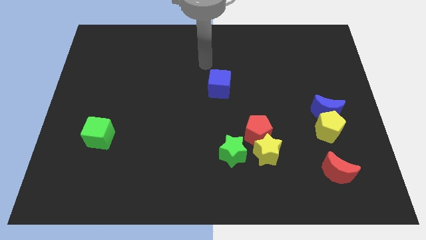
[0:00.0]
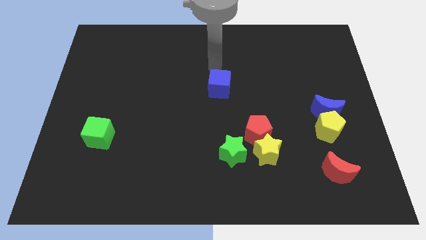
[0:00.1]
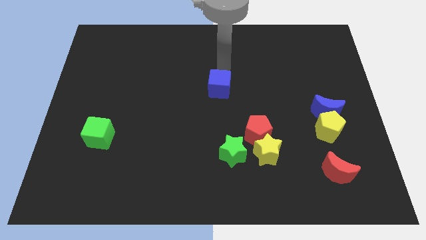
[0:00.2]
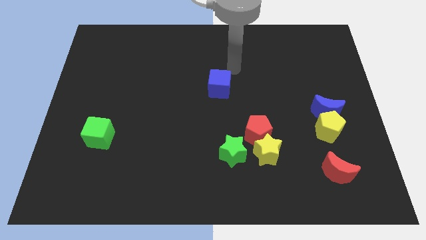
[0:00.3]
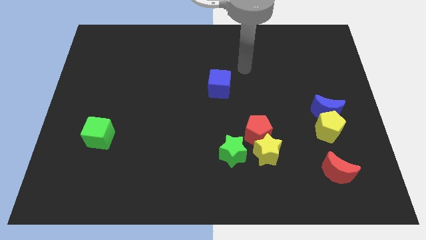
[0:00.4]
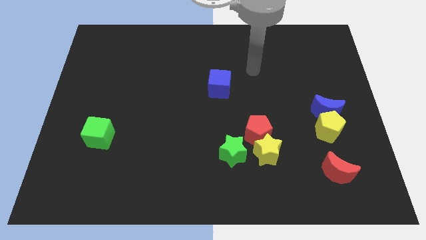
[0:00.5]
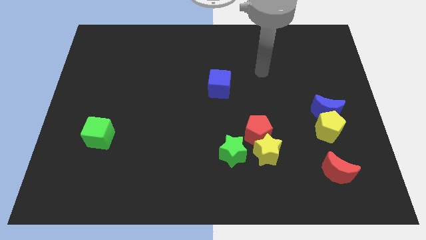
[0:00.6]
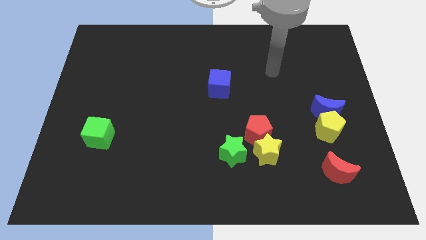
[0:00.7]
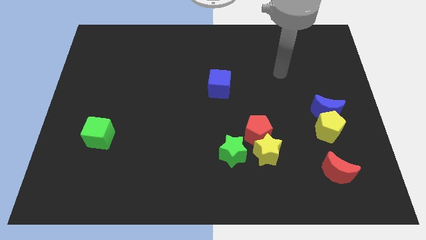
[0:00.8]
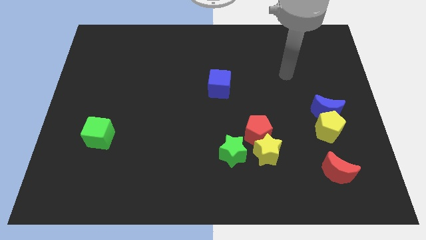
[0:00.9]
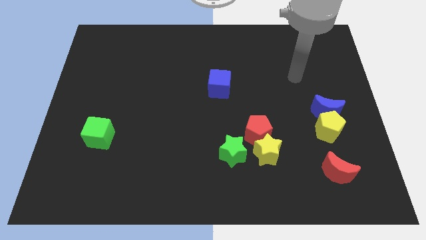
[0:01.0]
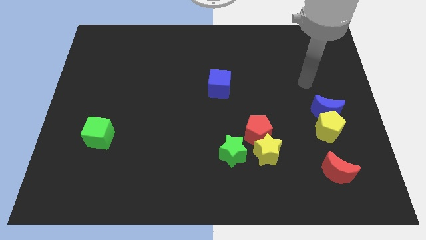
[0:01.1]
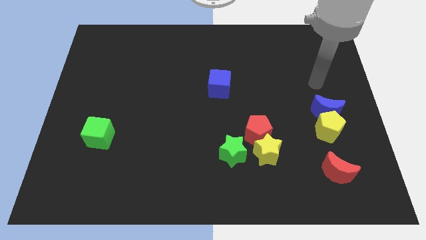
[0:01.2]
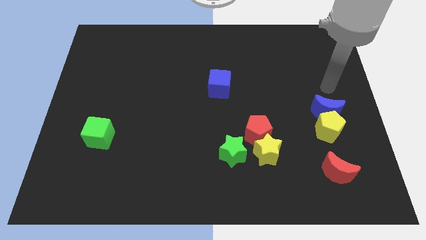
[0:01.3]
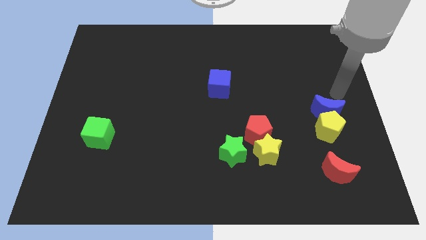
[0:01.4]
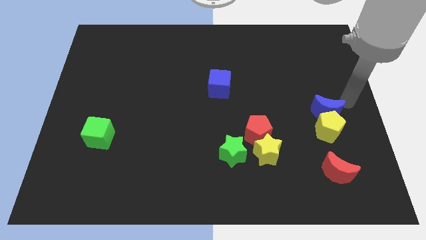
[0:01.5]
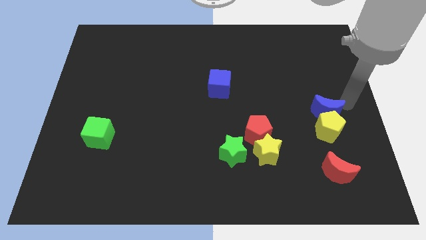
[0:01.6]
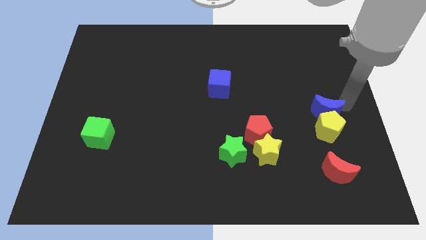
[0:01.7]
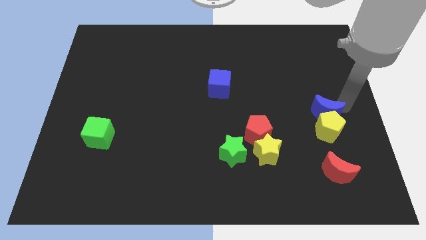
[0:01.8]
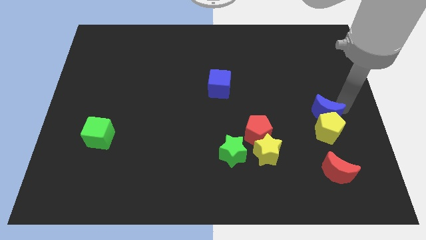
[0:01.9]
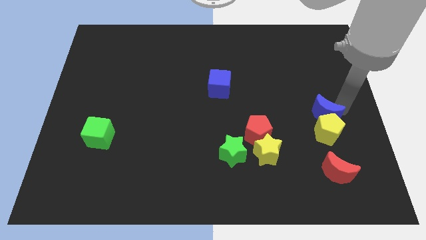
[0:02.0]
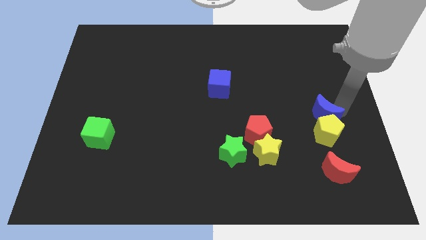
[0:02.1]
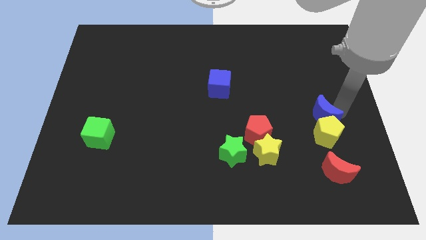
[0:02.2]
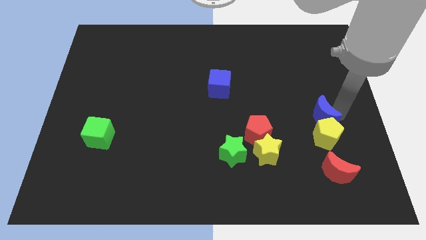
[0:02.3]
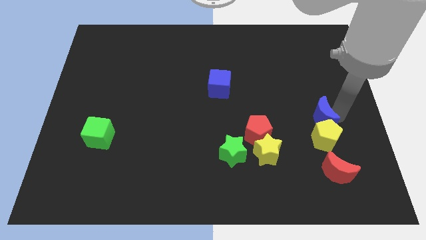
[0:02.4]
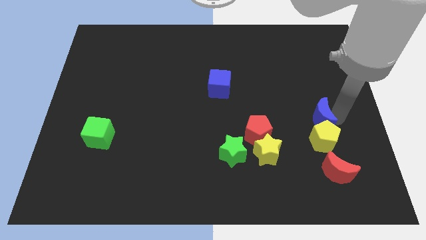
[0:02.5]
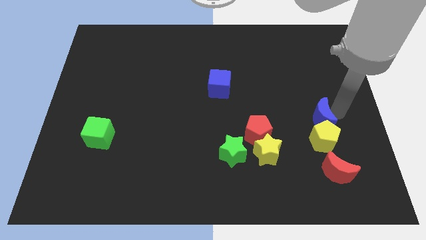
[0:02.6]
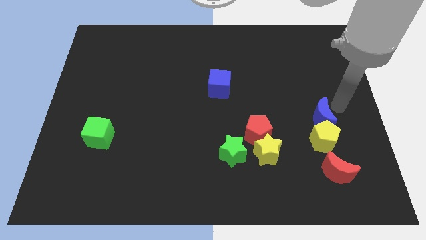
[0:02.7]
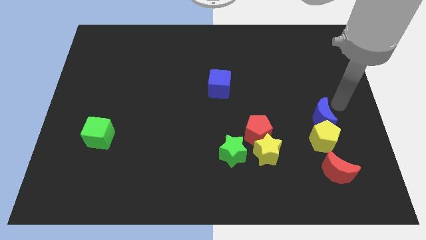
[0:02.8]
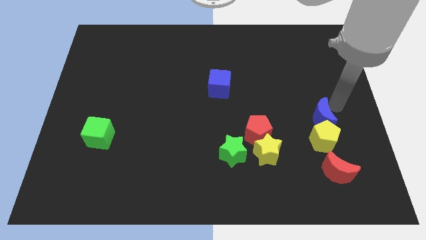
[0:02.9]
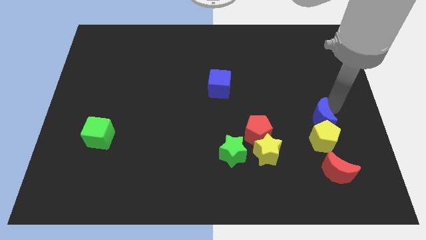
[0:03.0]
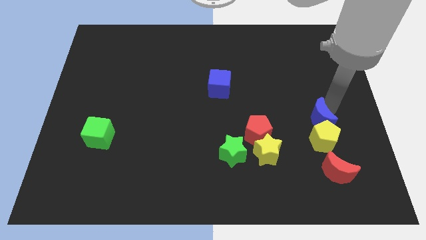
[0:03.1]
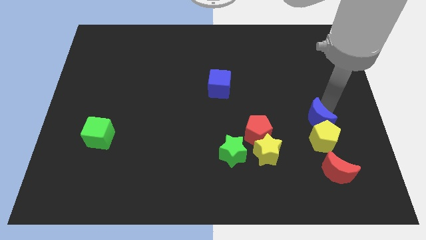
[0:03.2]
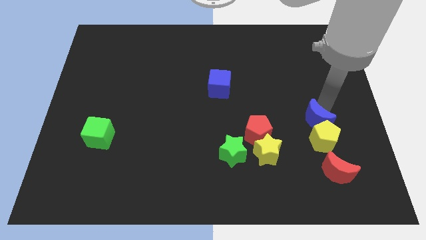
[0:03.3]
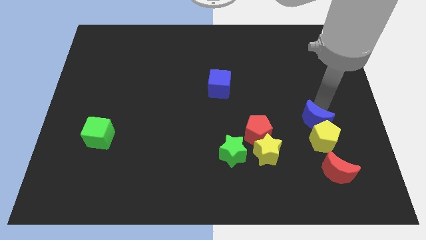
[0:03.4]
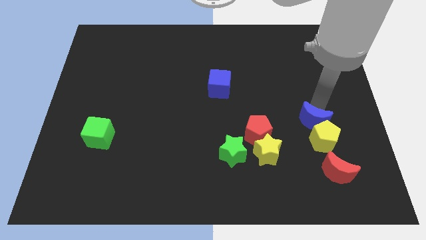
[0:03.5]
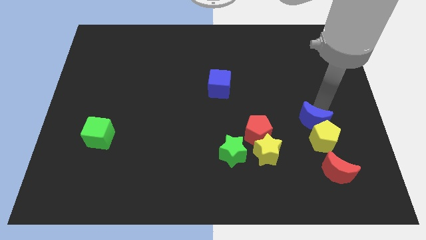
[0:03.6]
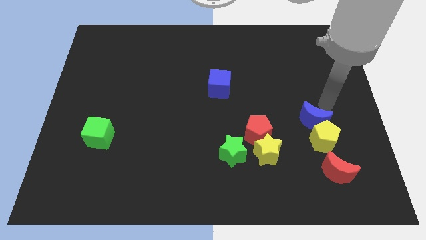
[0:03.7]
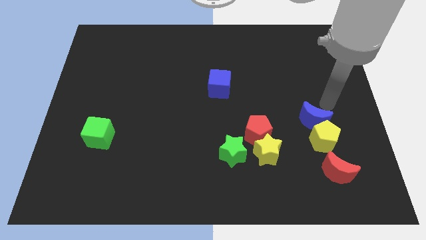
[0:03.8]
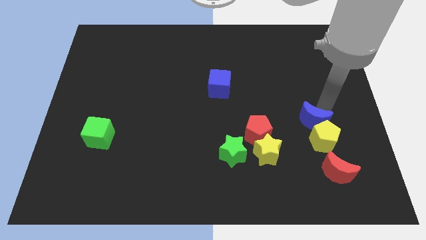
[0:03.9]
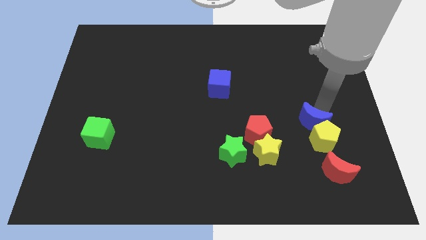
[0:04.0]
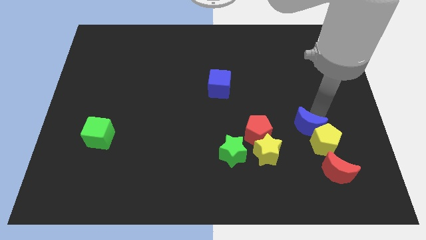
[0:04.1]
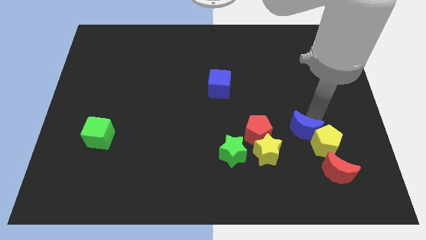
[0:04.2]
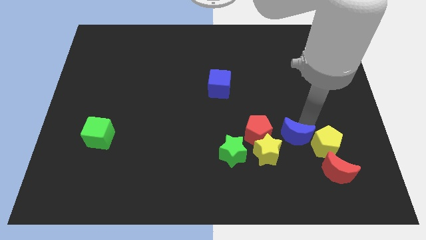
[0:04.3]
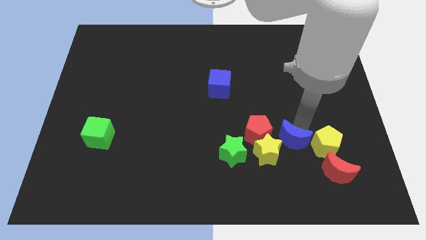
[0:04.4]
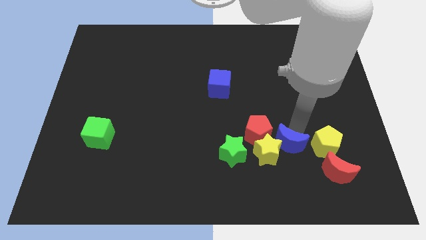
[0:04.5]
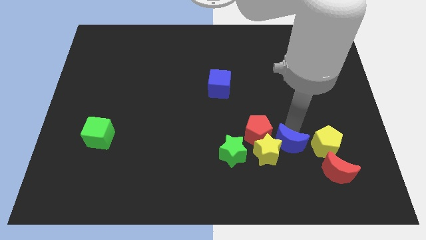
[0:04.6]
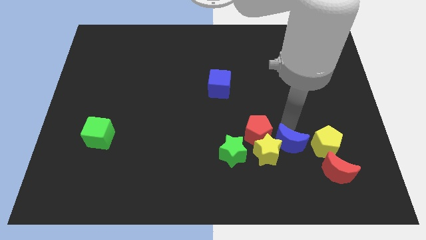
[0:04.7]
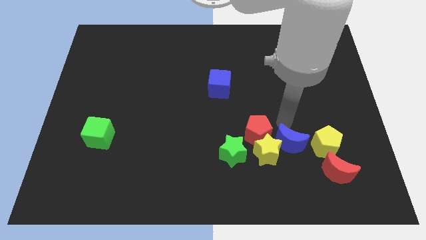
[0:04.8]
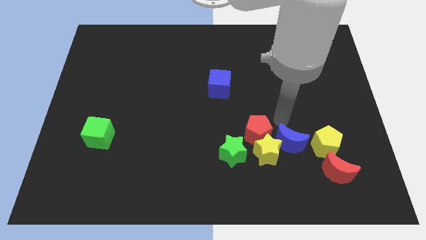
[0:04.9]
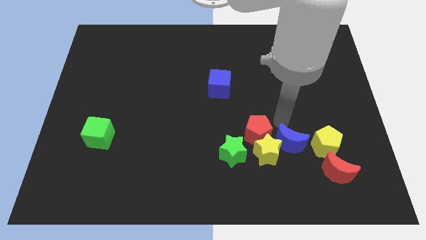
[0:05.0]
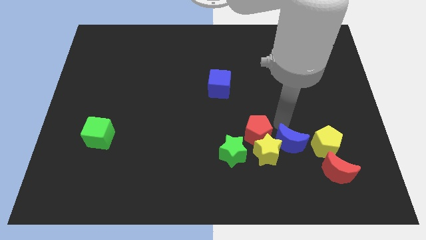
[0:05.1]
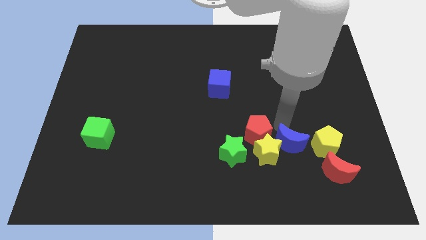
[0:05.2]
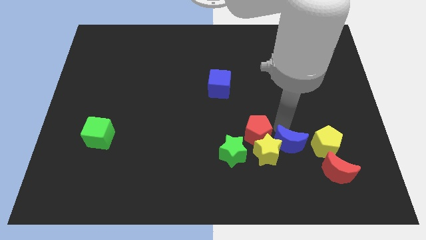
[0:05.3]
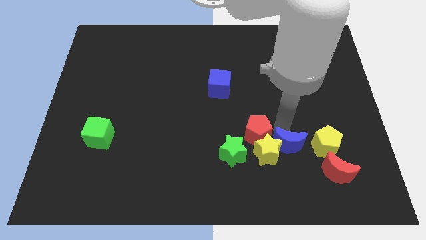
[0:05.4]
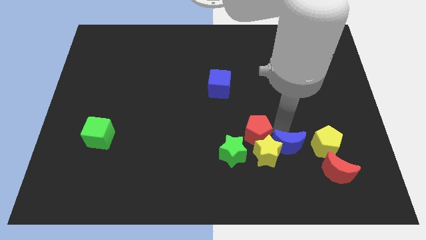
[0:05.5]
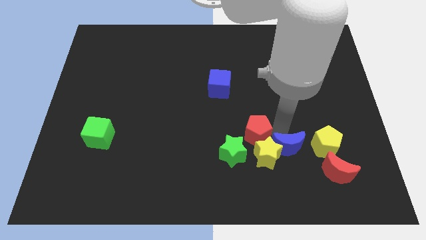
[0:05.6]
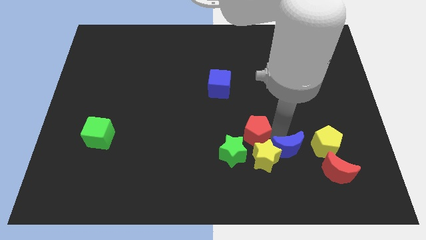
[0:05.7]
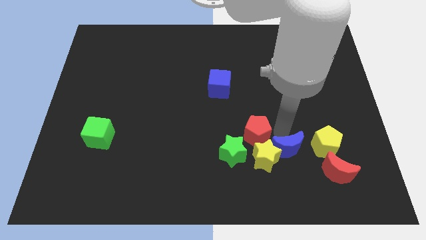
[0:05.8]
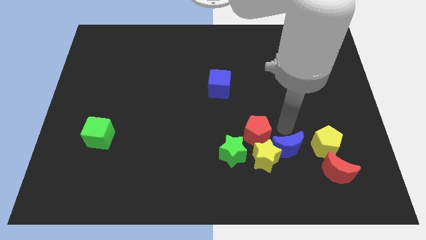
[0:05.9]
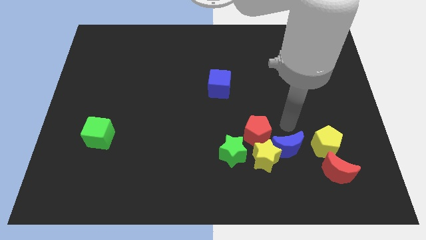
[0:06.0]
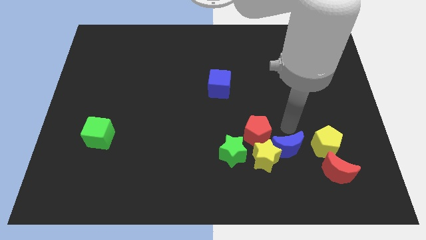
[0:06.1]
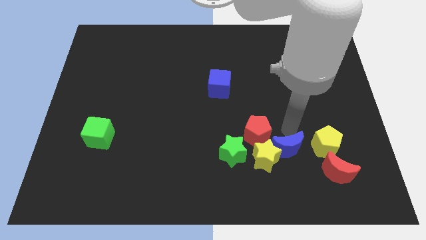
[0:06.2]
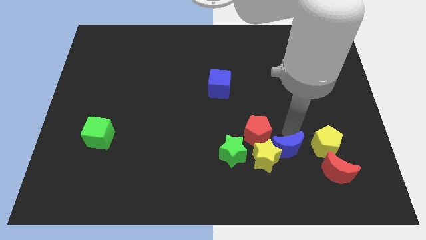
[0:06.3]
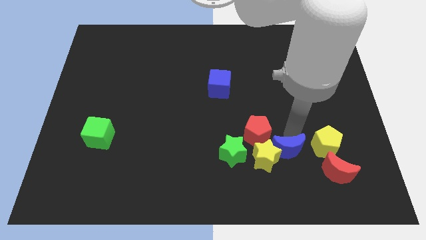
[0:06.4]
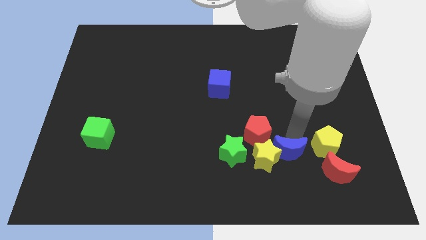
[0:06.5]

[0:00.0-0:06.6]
put the blue moon just left of the red moon
